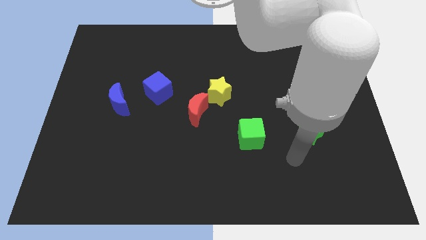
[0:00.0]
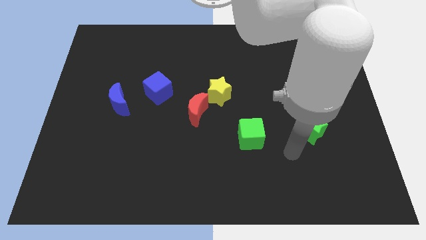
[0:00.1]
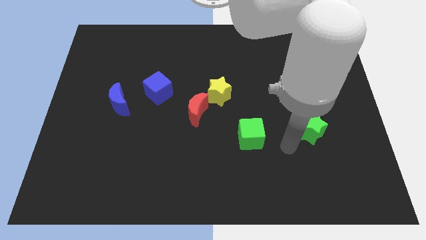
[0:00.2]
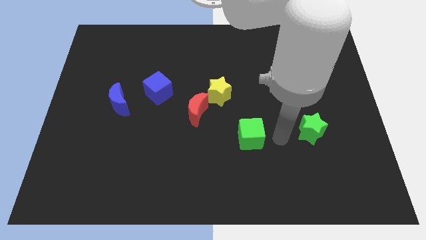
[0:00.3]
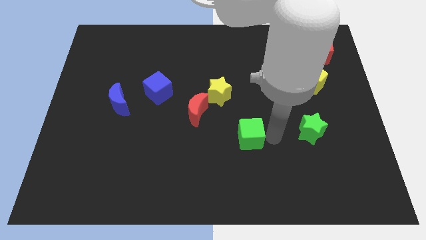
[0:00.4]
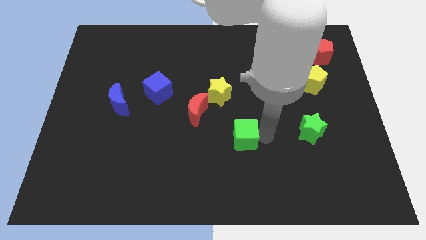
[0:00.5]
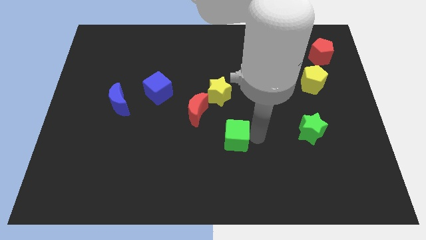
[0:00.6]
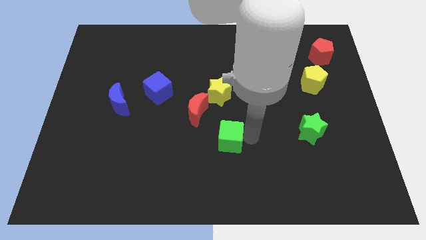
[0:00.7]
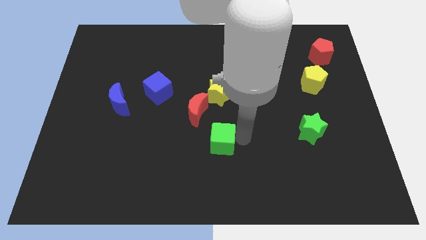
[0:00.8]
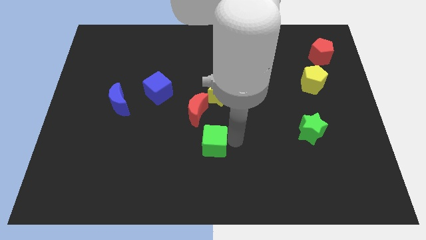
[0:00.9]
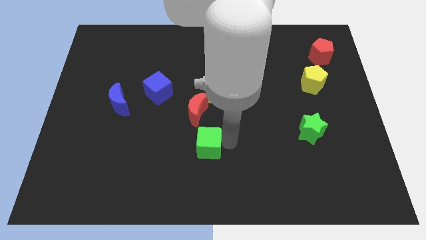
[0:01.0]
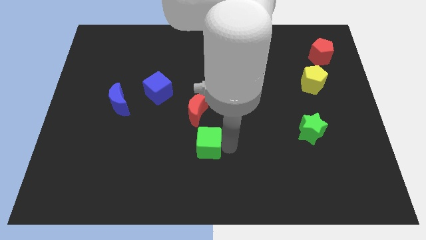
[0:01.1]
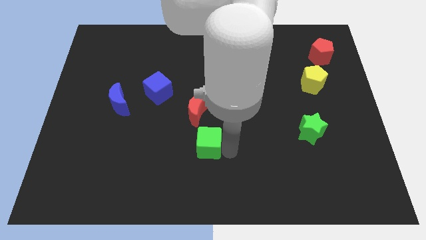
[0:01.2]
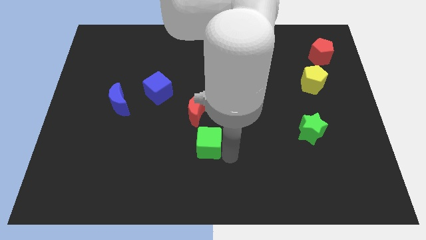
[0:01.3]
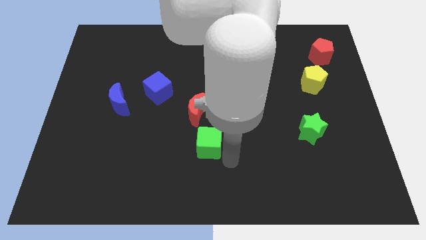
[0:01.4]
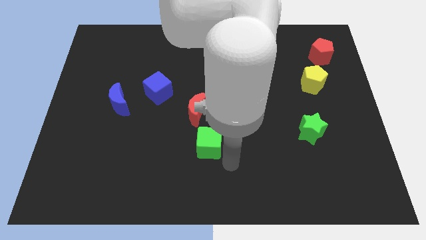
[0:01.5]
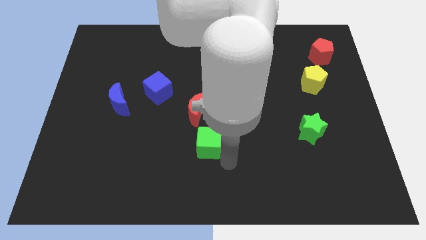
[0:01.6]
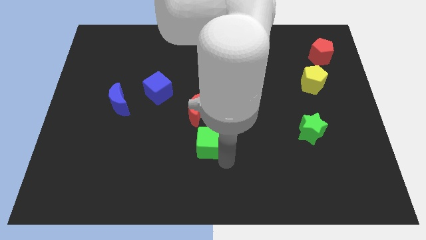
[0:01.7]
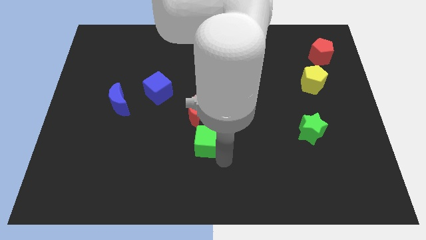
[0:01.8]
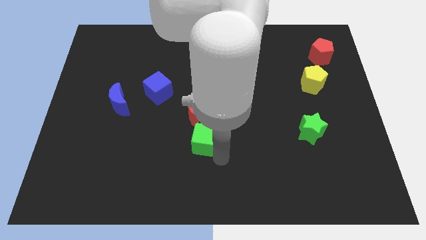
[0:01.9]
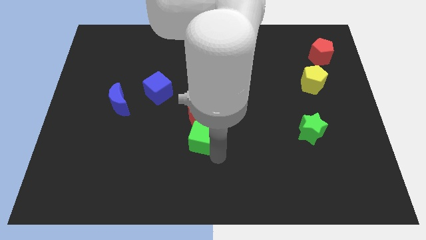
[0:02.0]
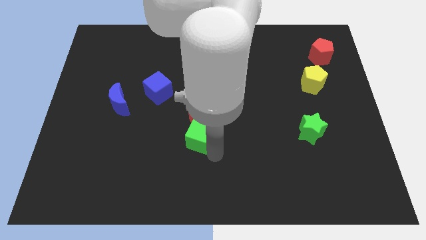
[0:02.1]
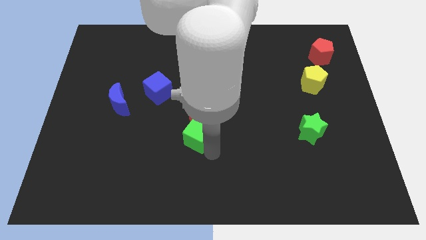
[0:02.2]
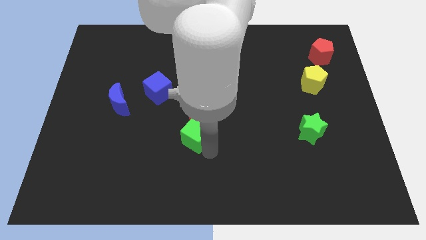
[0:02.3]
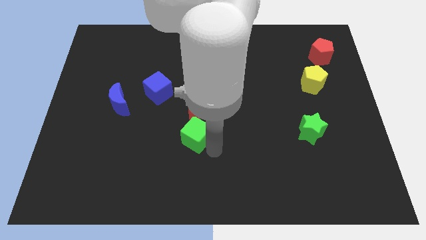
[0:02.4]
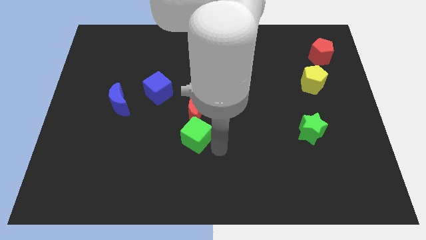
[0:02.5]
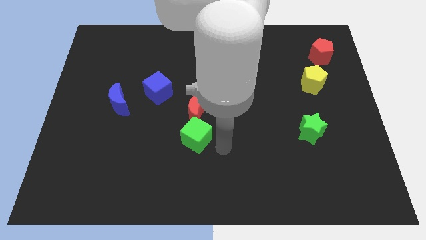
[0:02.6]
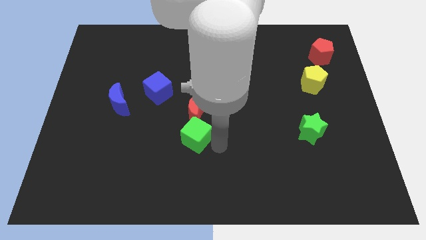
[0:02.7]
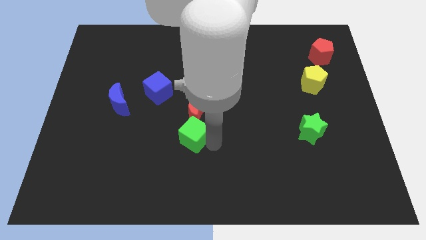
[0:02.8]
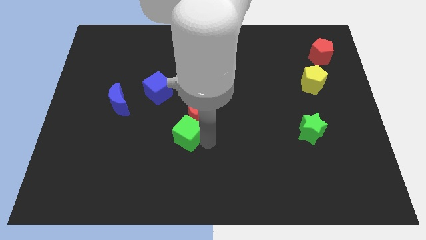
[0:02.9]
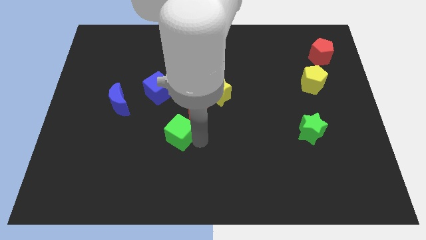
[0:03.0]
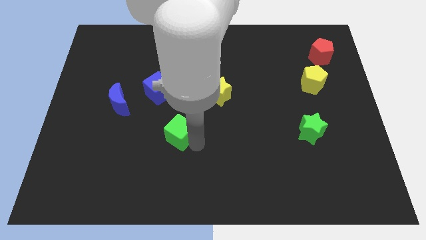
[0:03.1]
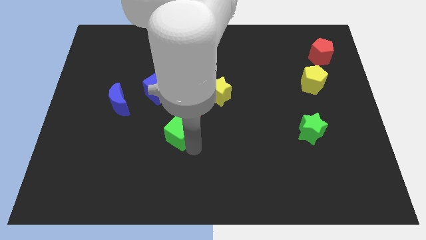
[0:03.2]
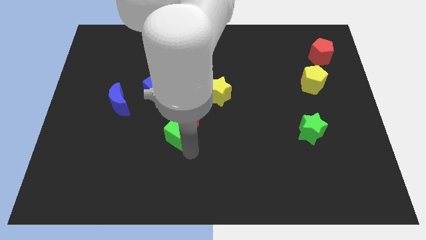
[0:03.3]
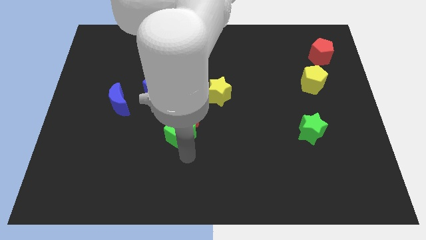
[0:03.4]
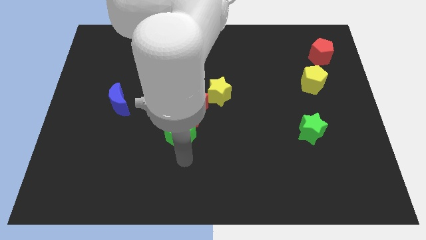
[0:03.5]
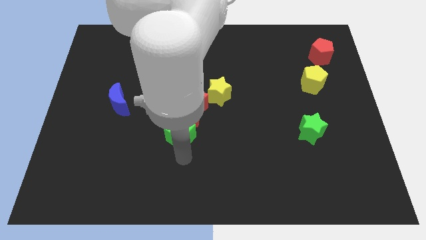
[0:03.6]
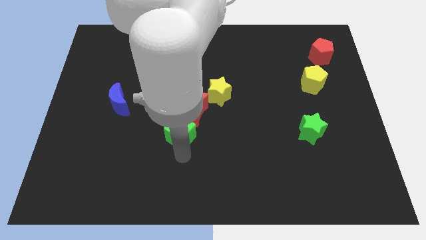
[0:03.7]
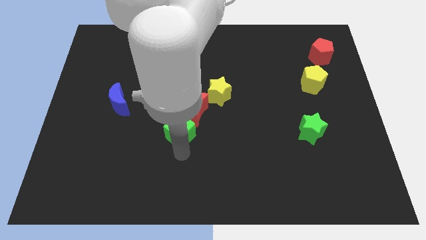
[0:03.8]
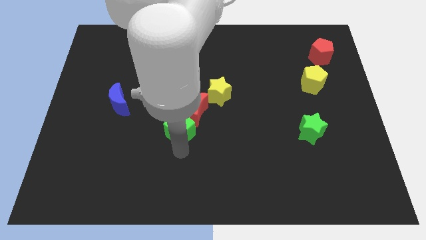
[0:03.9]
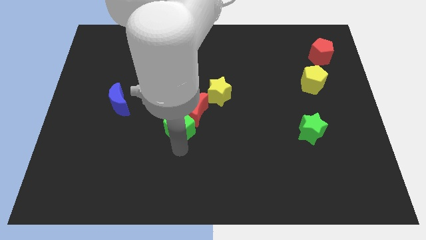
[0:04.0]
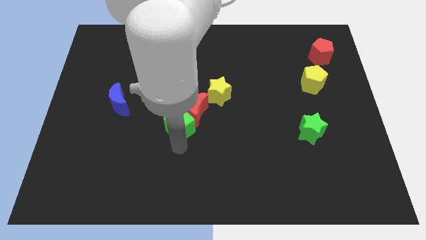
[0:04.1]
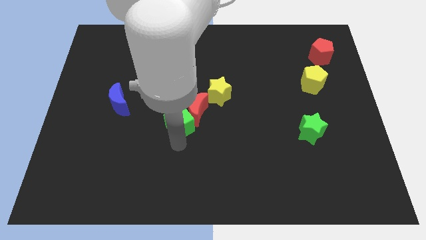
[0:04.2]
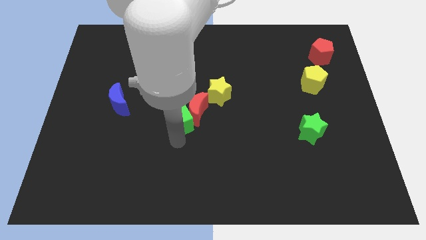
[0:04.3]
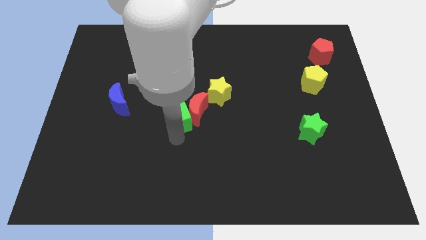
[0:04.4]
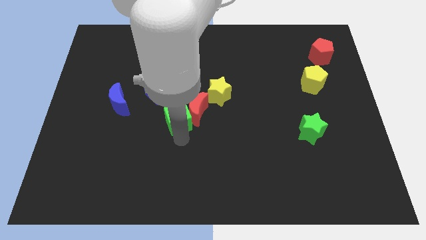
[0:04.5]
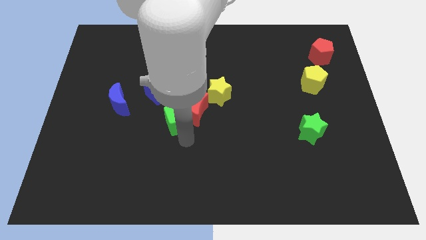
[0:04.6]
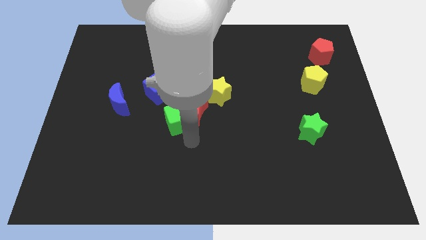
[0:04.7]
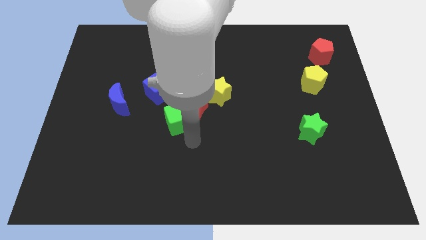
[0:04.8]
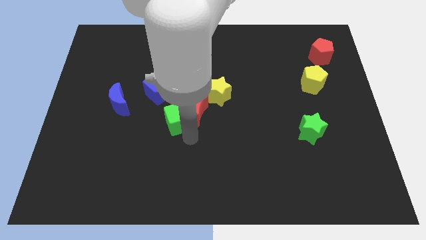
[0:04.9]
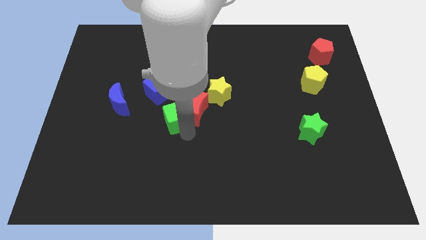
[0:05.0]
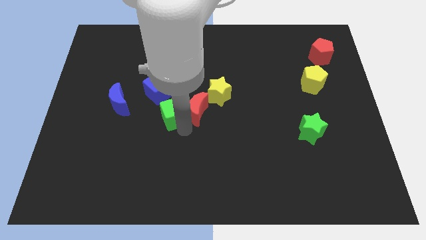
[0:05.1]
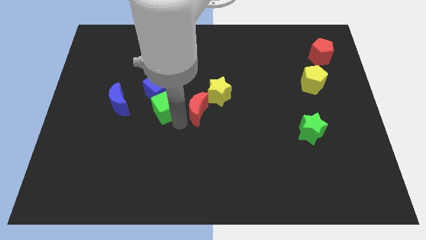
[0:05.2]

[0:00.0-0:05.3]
move the green cube next to the blue cube

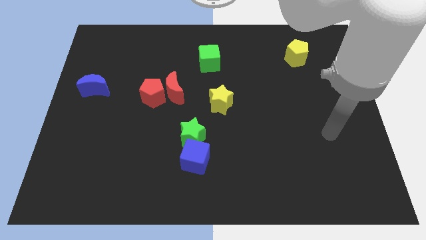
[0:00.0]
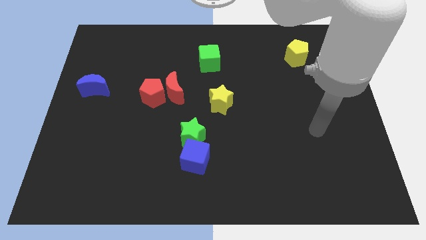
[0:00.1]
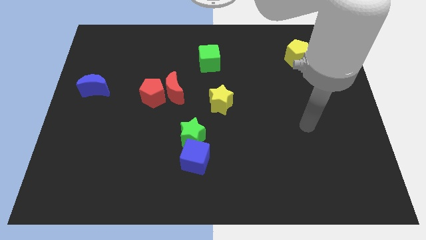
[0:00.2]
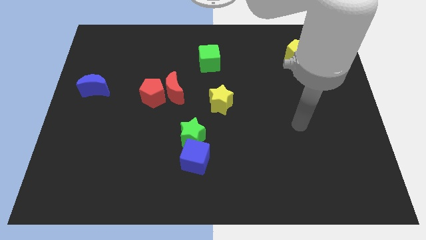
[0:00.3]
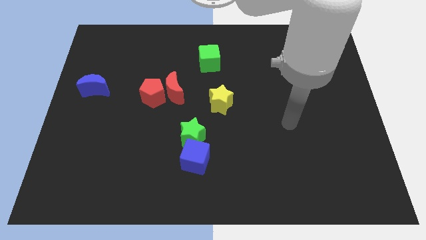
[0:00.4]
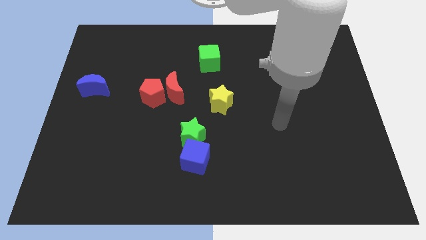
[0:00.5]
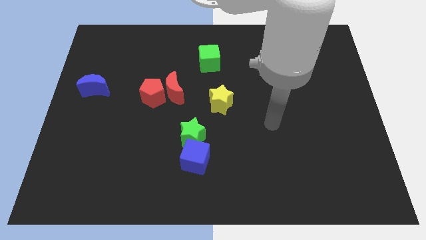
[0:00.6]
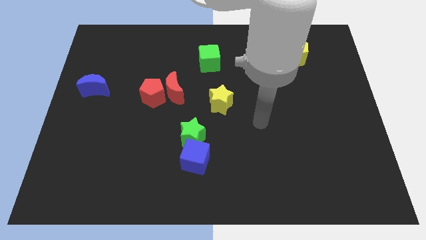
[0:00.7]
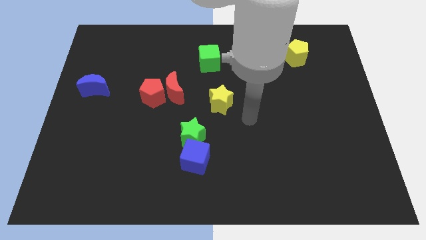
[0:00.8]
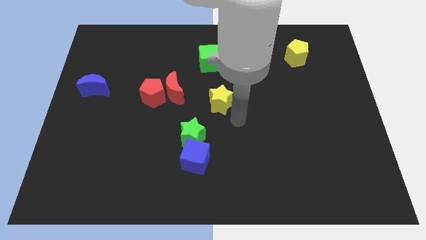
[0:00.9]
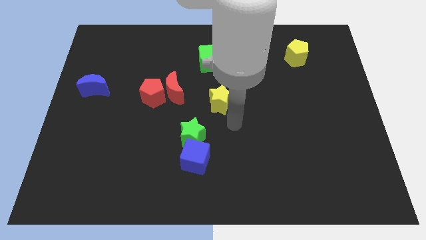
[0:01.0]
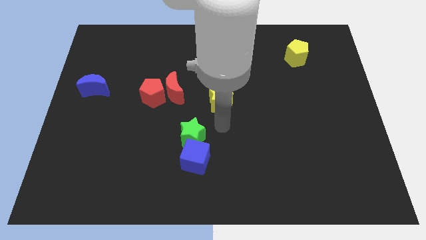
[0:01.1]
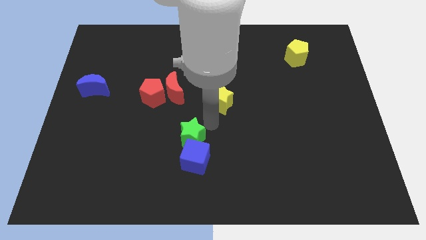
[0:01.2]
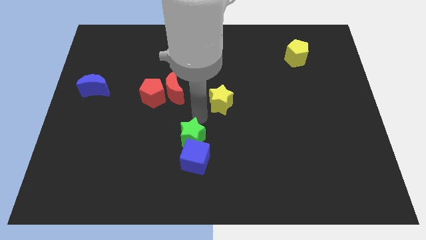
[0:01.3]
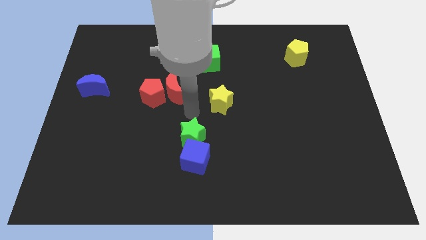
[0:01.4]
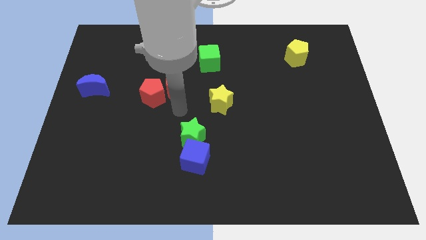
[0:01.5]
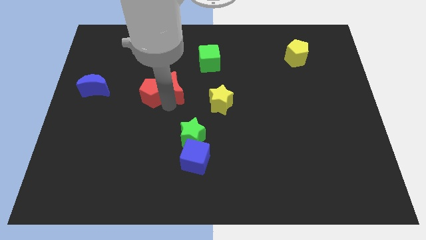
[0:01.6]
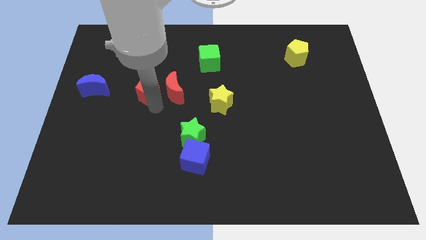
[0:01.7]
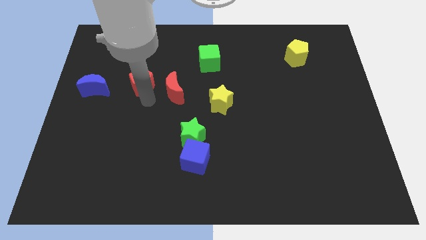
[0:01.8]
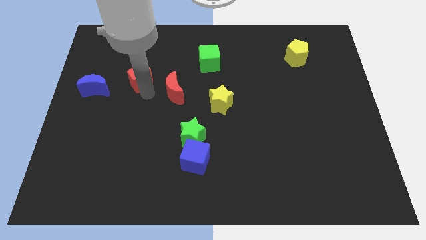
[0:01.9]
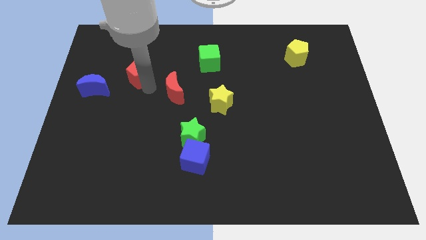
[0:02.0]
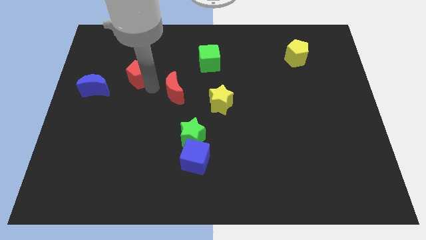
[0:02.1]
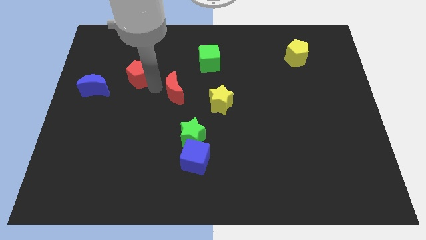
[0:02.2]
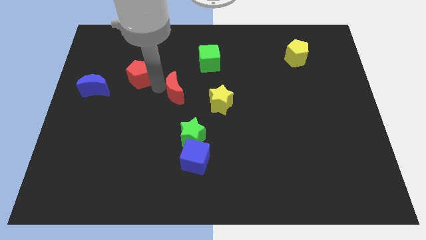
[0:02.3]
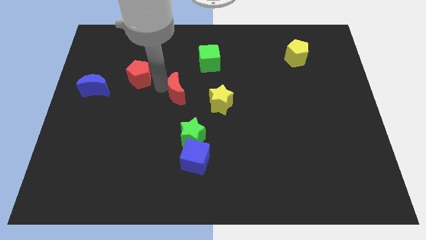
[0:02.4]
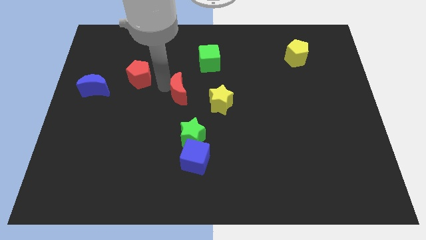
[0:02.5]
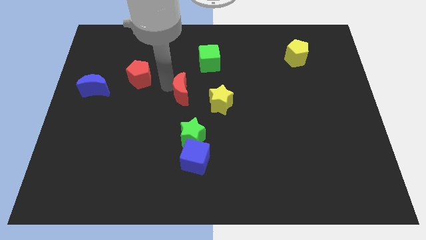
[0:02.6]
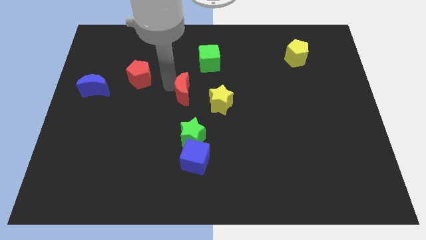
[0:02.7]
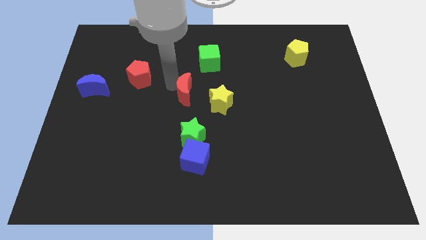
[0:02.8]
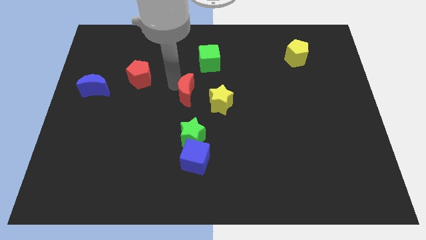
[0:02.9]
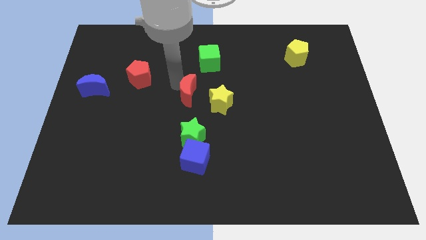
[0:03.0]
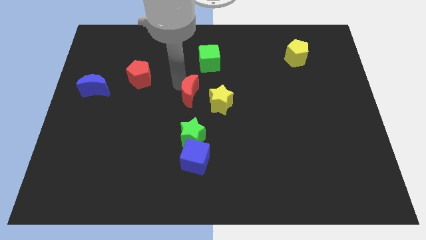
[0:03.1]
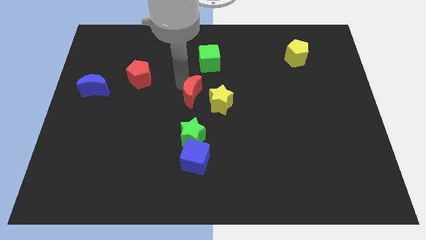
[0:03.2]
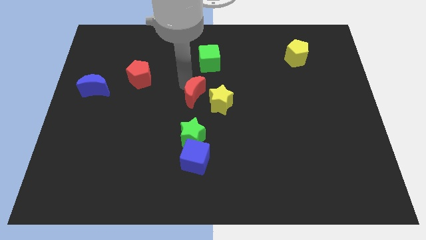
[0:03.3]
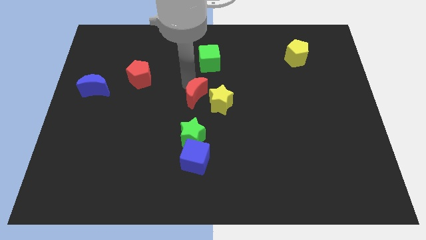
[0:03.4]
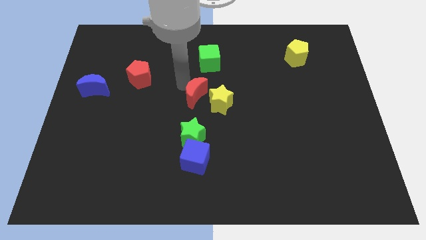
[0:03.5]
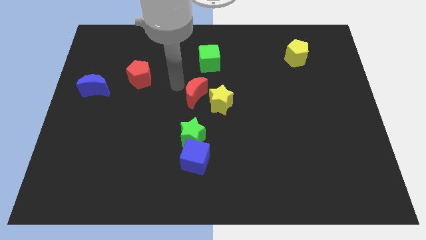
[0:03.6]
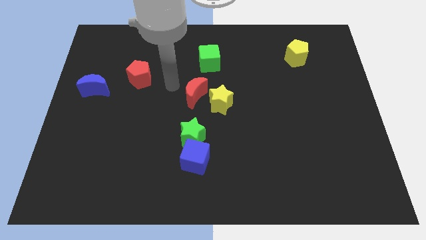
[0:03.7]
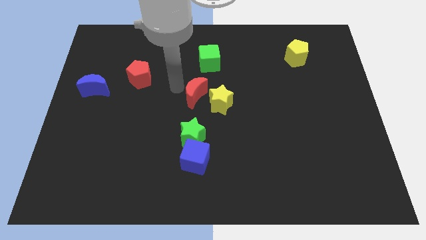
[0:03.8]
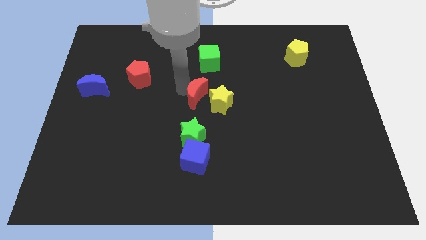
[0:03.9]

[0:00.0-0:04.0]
put the red moon close to the yellow star
